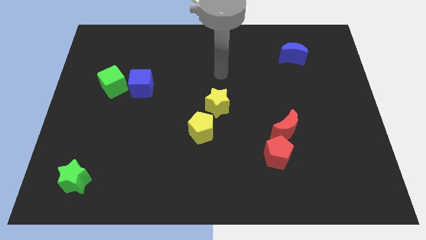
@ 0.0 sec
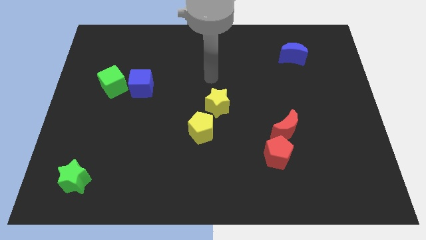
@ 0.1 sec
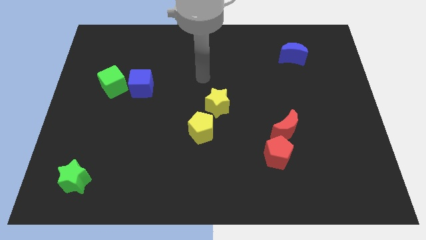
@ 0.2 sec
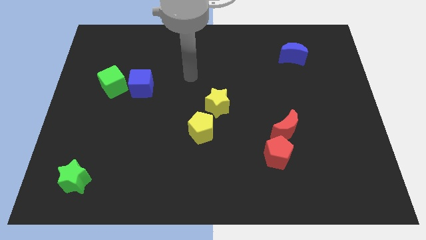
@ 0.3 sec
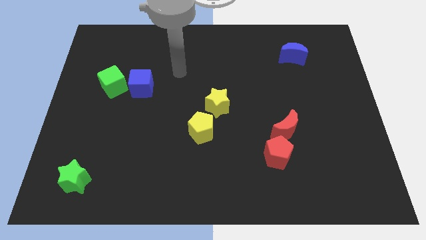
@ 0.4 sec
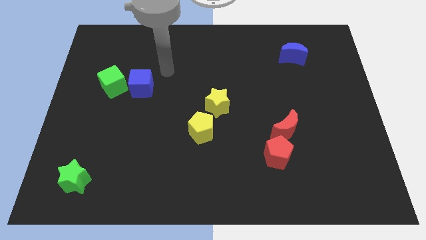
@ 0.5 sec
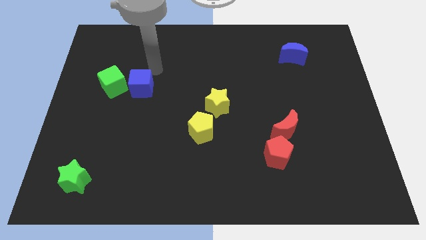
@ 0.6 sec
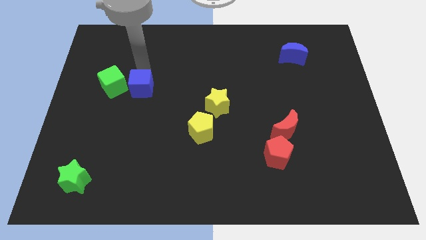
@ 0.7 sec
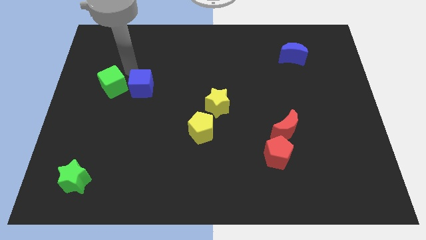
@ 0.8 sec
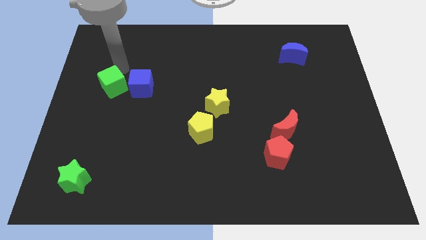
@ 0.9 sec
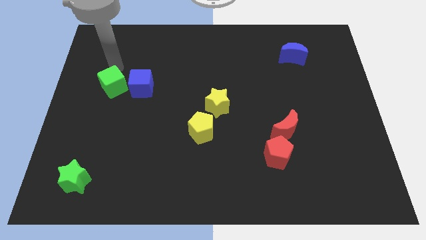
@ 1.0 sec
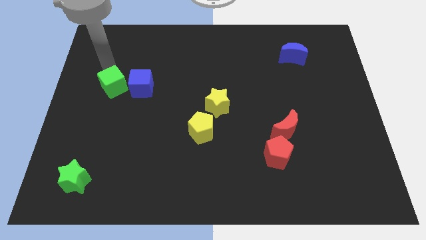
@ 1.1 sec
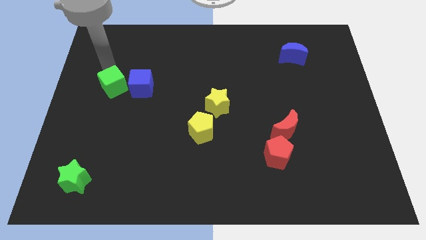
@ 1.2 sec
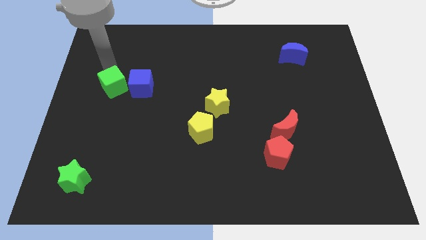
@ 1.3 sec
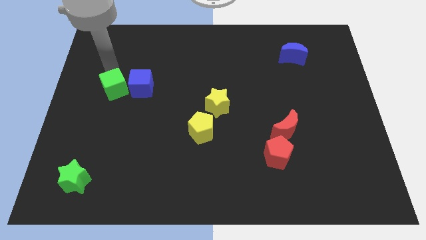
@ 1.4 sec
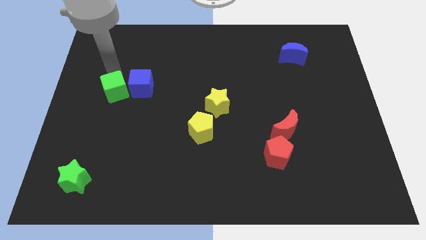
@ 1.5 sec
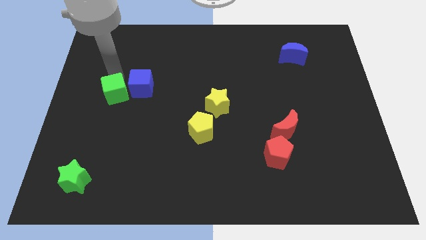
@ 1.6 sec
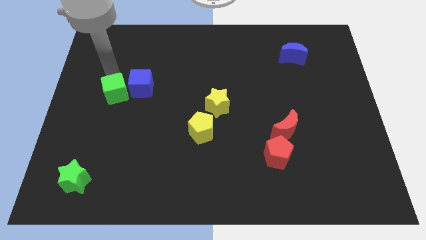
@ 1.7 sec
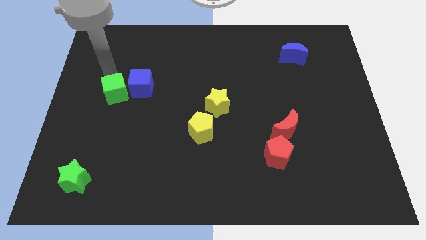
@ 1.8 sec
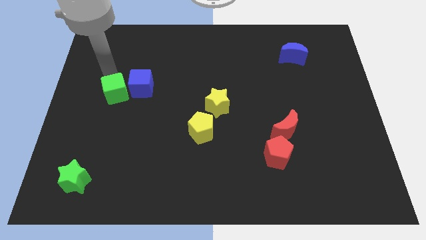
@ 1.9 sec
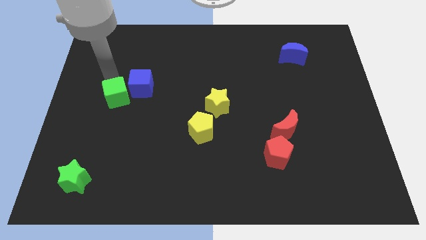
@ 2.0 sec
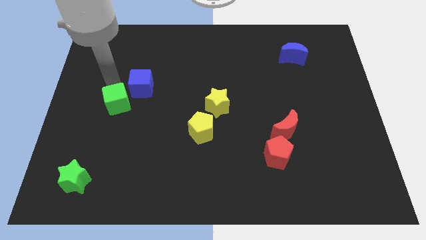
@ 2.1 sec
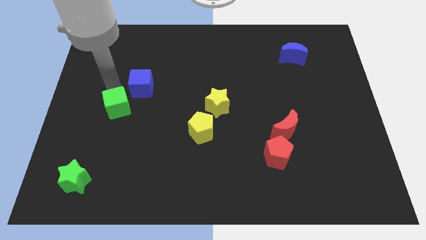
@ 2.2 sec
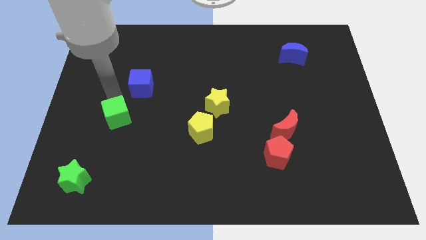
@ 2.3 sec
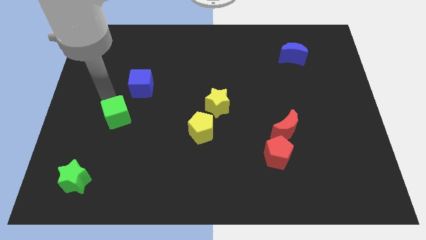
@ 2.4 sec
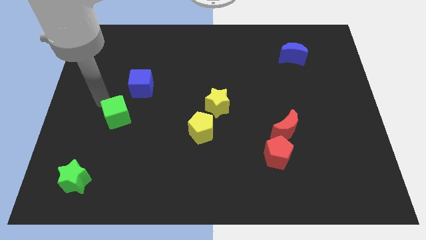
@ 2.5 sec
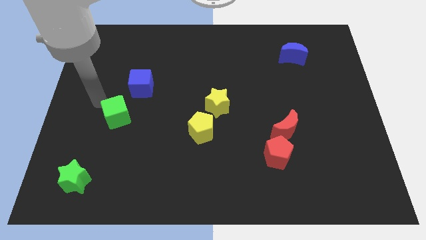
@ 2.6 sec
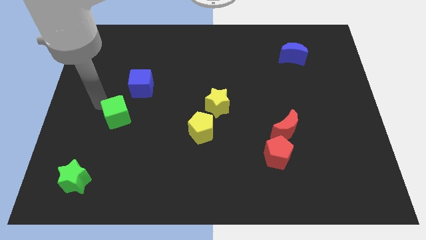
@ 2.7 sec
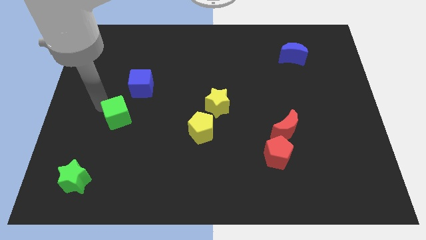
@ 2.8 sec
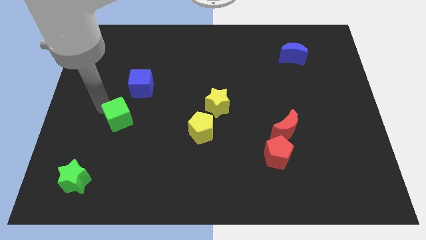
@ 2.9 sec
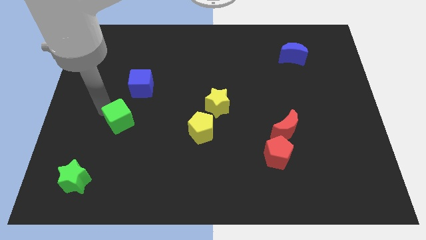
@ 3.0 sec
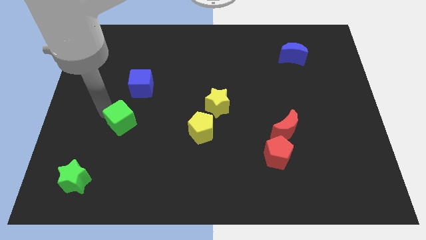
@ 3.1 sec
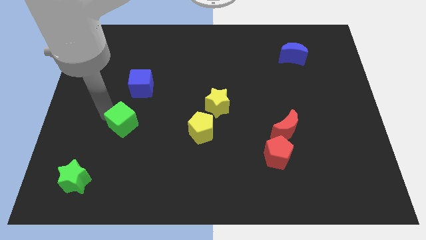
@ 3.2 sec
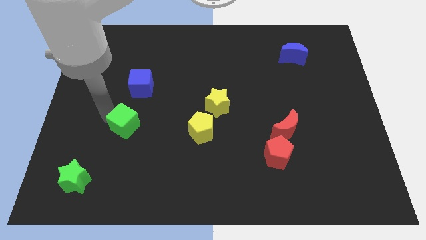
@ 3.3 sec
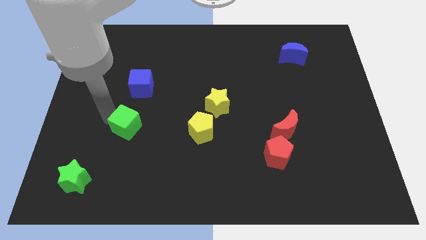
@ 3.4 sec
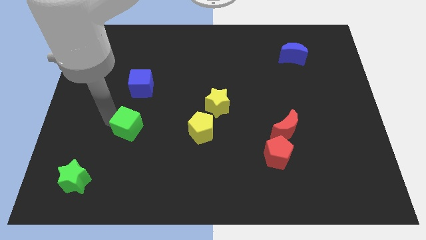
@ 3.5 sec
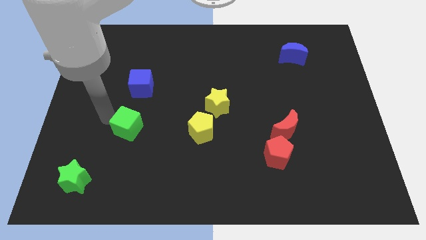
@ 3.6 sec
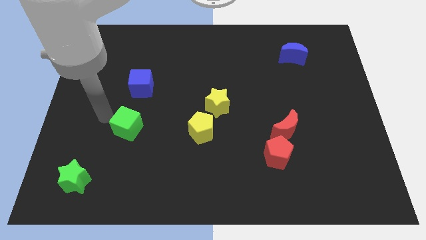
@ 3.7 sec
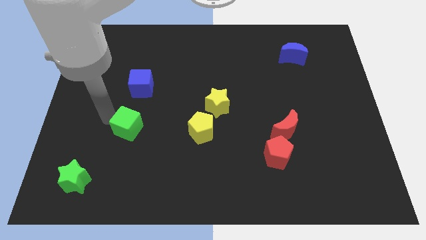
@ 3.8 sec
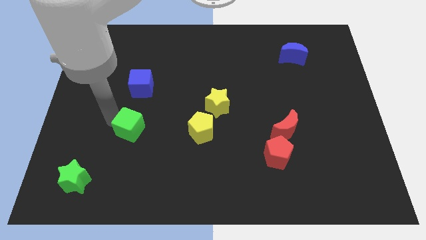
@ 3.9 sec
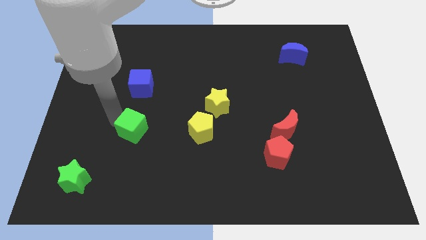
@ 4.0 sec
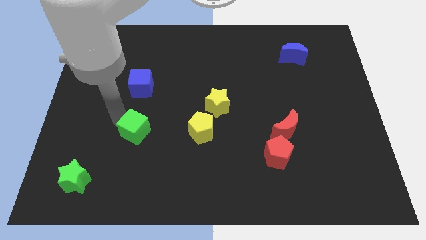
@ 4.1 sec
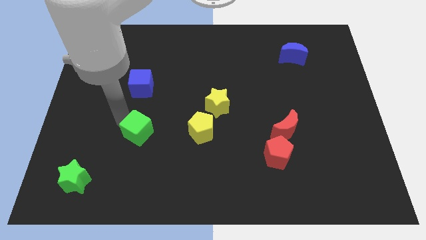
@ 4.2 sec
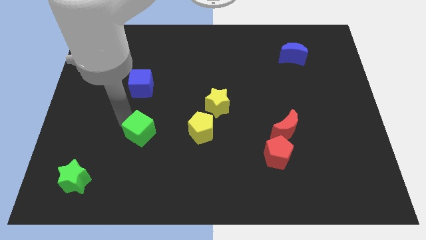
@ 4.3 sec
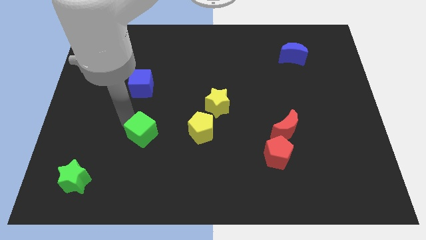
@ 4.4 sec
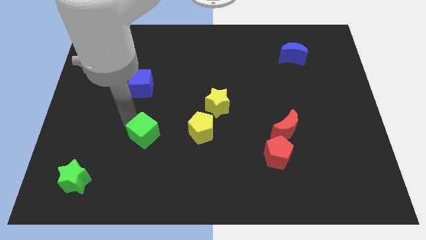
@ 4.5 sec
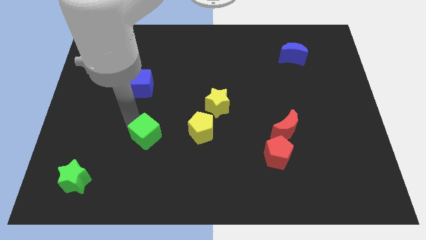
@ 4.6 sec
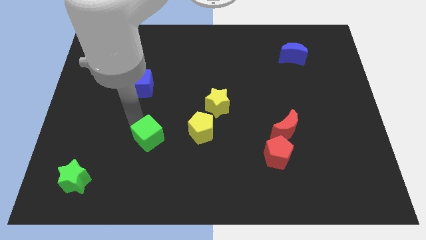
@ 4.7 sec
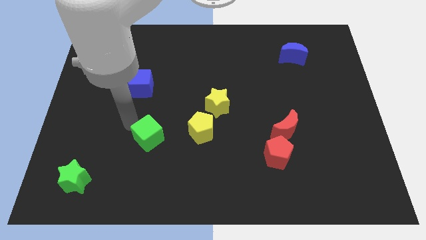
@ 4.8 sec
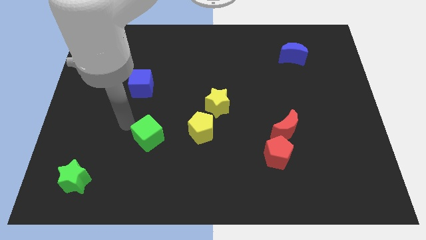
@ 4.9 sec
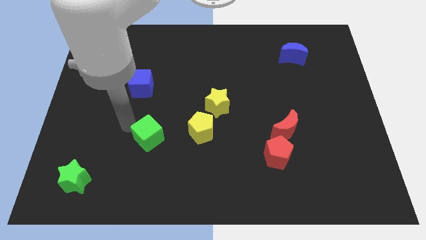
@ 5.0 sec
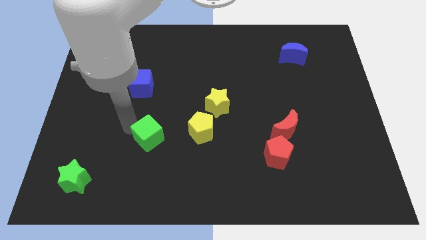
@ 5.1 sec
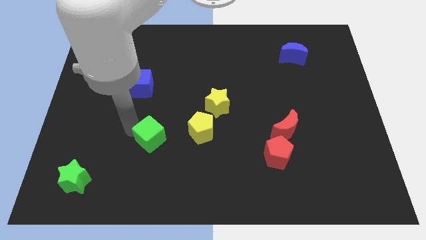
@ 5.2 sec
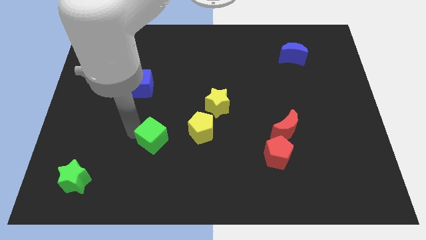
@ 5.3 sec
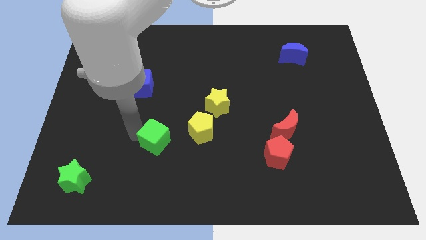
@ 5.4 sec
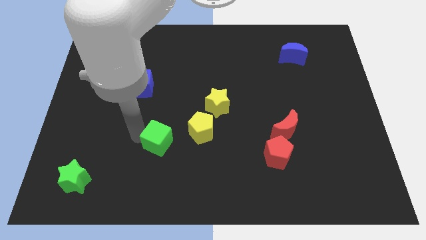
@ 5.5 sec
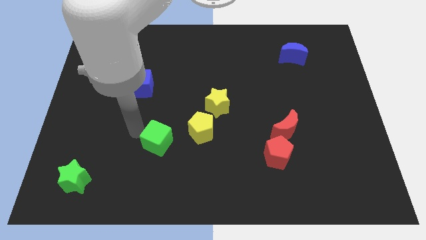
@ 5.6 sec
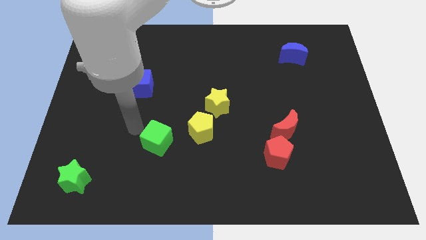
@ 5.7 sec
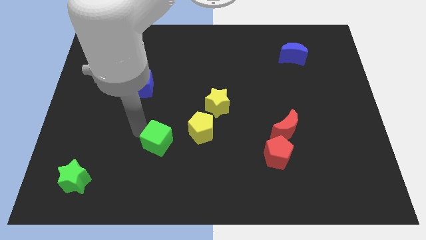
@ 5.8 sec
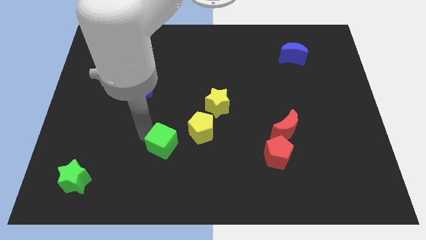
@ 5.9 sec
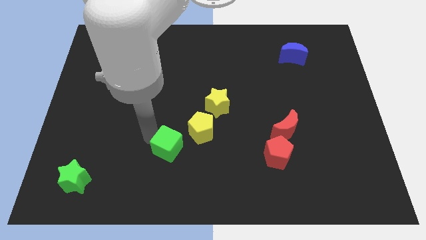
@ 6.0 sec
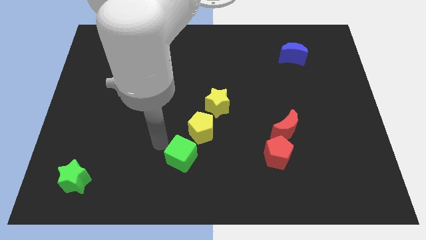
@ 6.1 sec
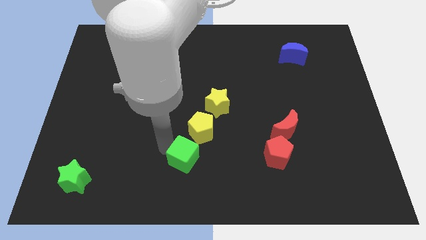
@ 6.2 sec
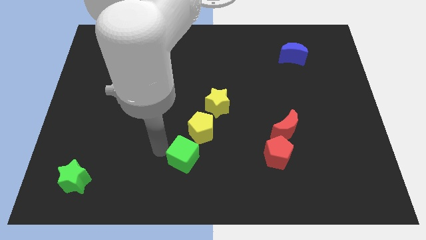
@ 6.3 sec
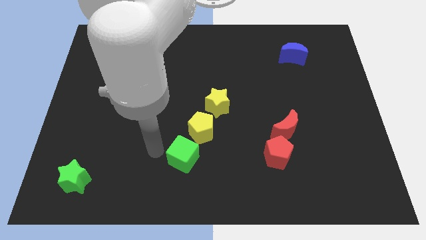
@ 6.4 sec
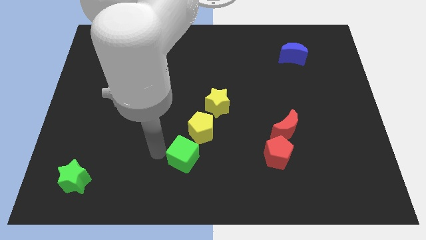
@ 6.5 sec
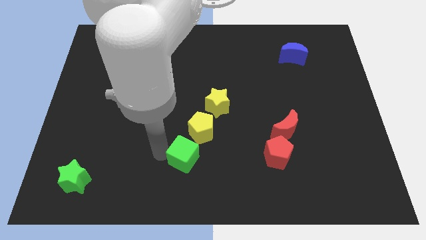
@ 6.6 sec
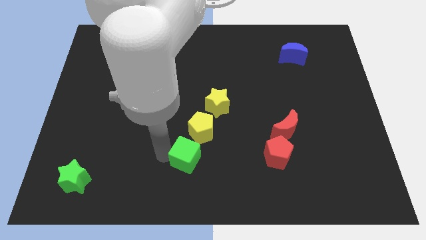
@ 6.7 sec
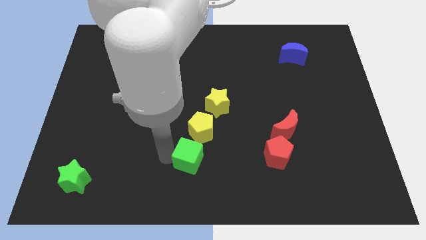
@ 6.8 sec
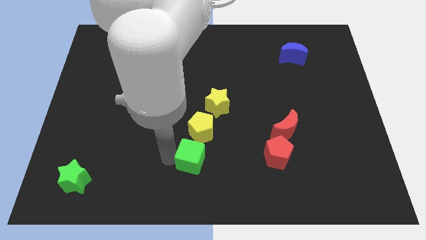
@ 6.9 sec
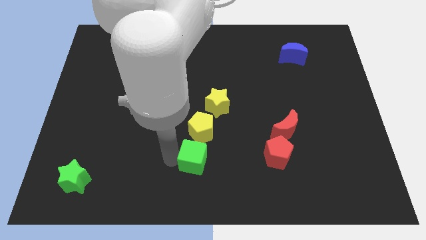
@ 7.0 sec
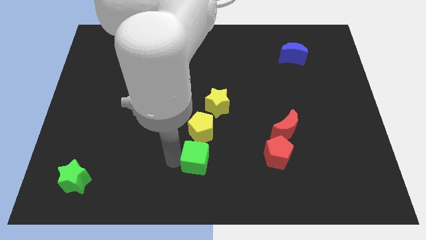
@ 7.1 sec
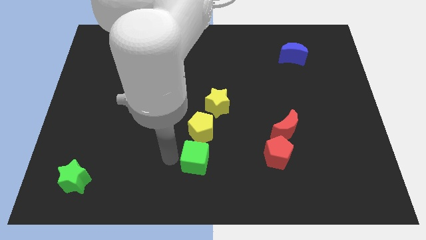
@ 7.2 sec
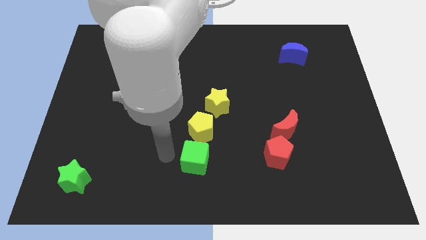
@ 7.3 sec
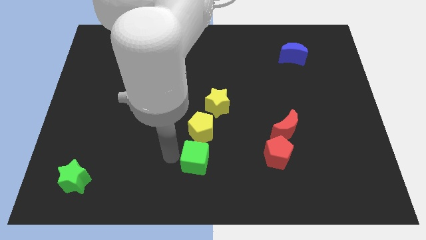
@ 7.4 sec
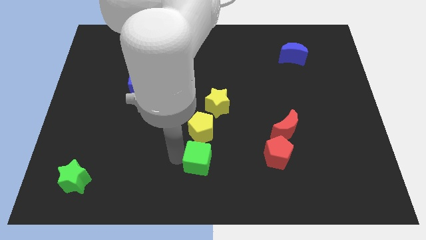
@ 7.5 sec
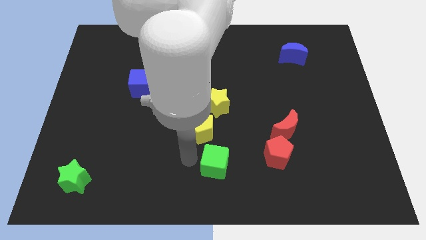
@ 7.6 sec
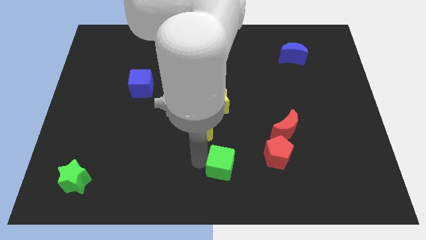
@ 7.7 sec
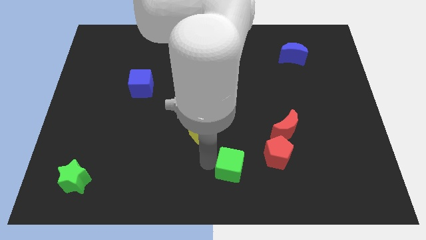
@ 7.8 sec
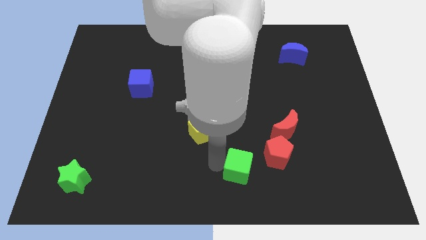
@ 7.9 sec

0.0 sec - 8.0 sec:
slide the green cube diagonally down and to the left of the red pentagon
